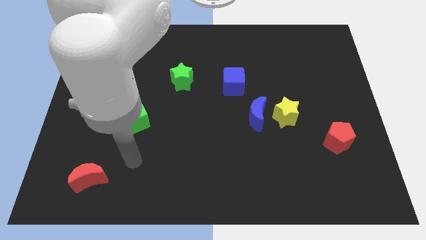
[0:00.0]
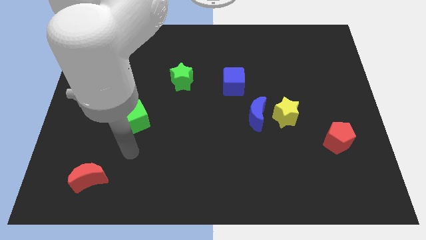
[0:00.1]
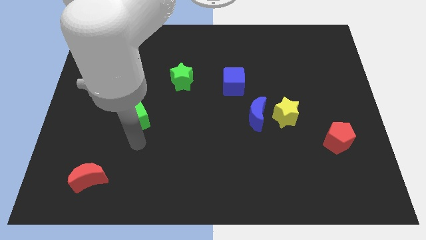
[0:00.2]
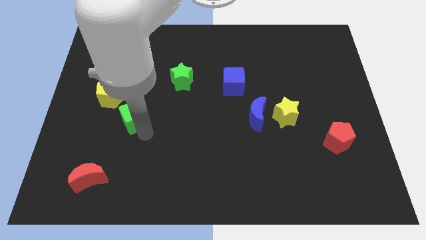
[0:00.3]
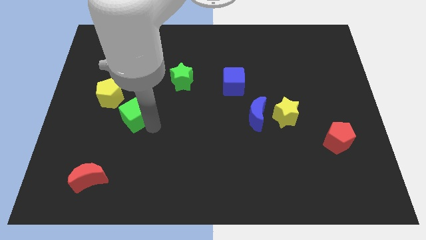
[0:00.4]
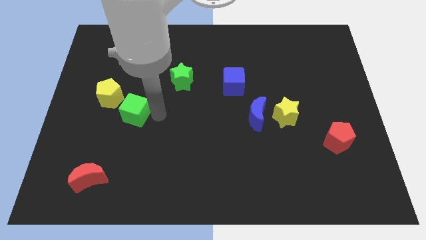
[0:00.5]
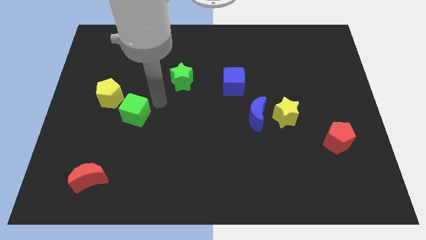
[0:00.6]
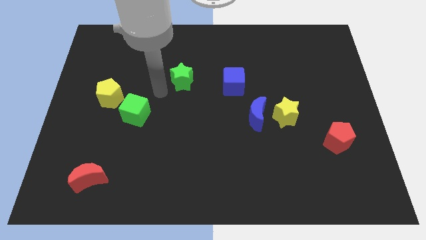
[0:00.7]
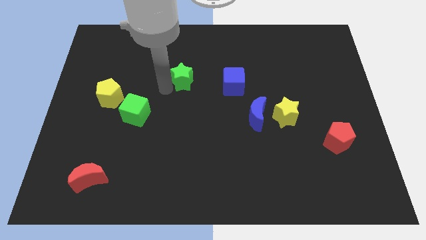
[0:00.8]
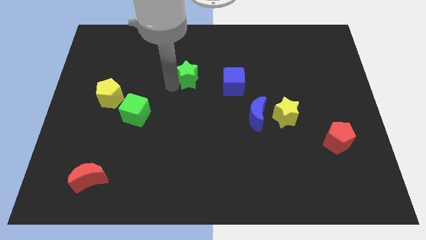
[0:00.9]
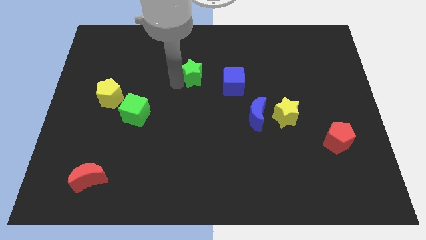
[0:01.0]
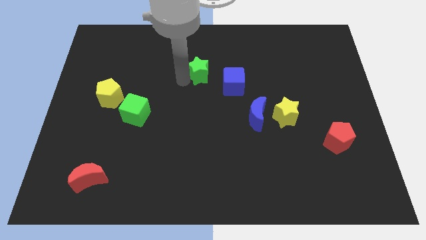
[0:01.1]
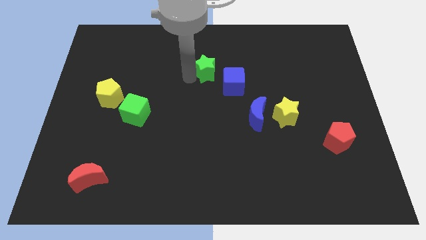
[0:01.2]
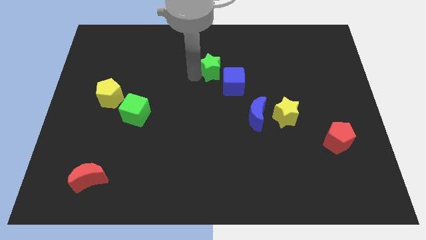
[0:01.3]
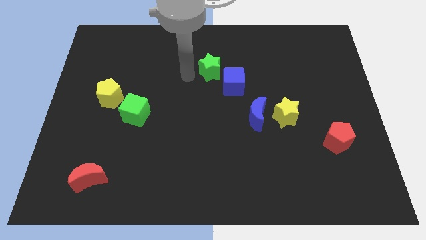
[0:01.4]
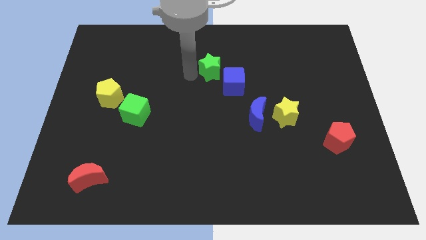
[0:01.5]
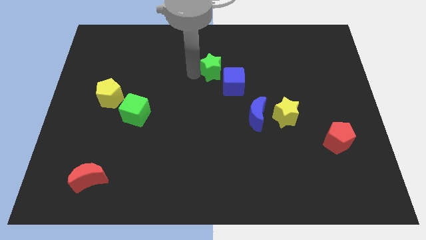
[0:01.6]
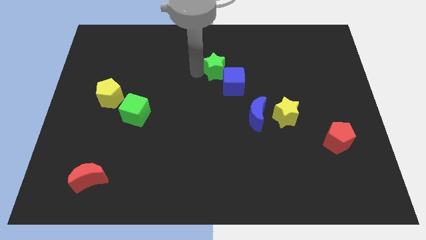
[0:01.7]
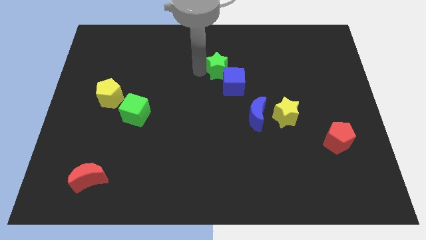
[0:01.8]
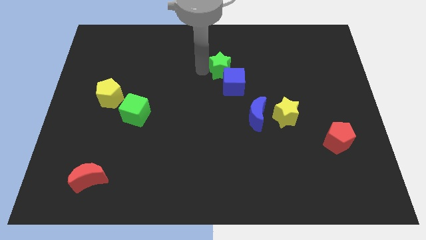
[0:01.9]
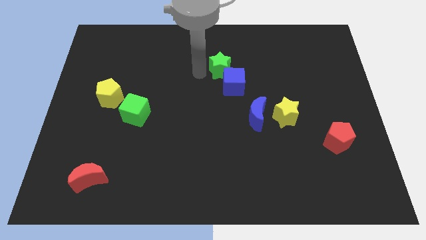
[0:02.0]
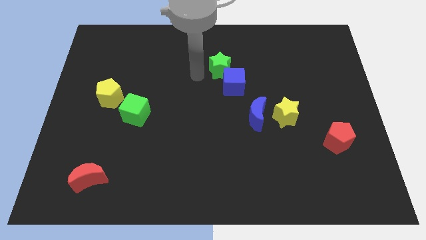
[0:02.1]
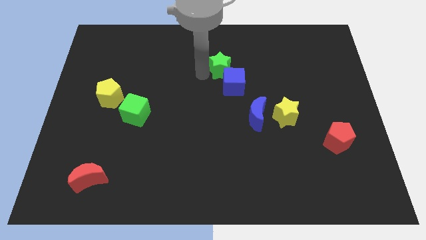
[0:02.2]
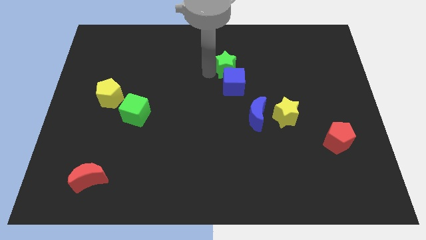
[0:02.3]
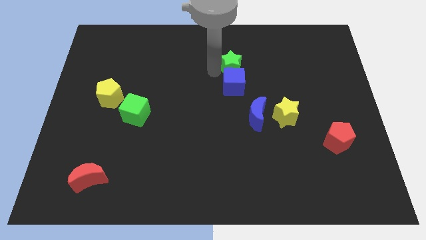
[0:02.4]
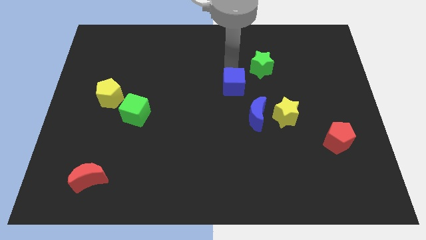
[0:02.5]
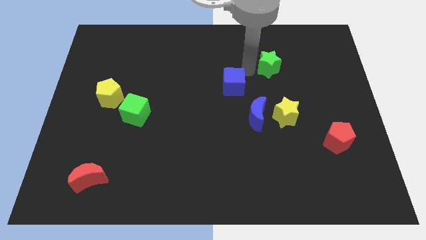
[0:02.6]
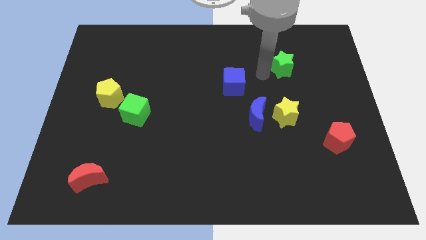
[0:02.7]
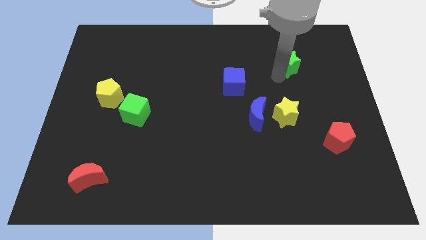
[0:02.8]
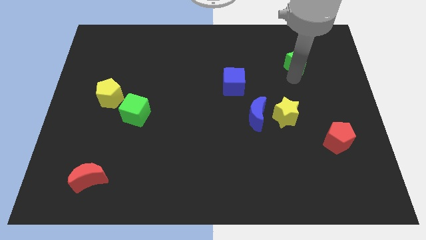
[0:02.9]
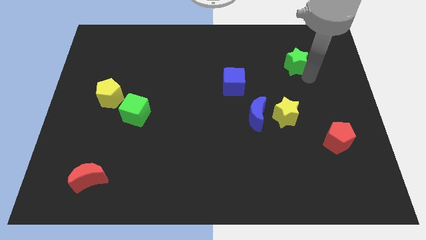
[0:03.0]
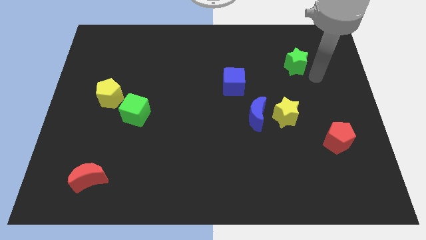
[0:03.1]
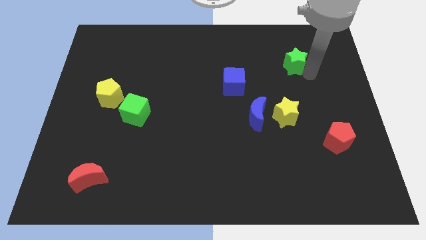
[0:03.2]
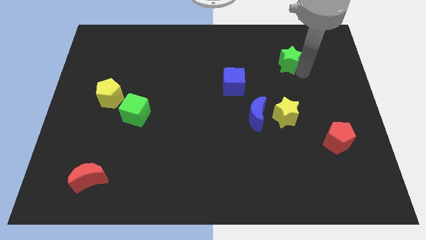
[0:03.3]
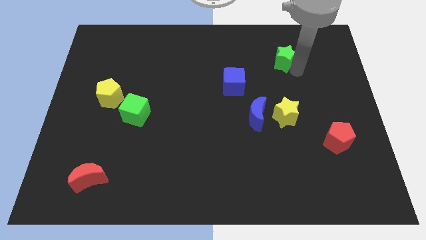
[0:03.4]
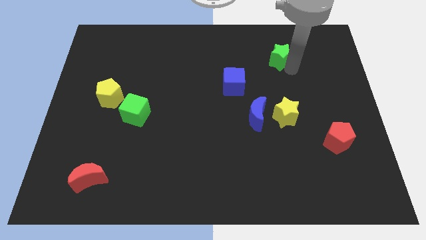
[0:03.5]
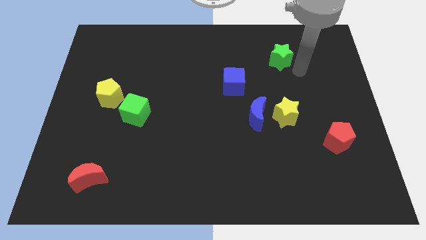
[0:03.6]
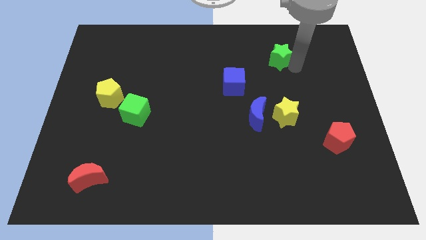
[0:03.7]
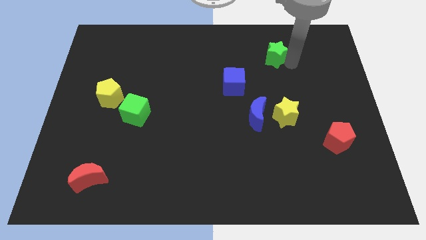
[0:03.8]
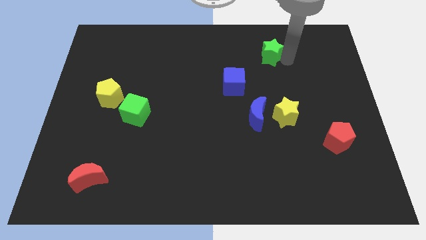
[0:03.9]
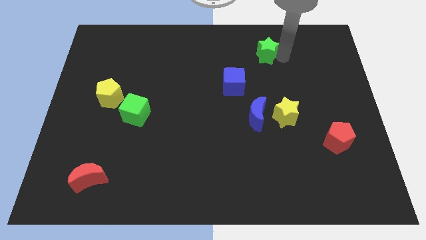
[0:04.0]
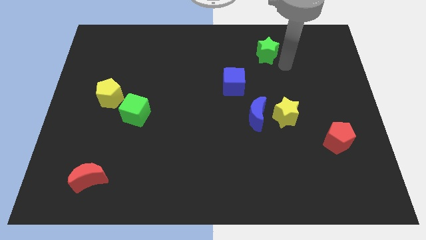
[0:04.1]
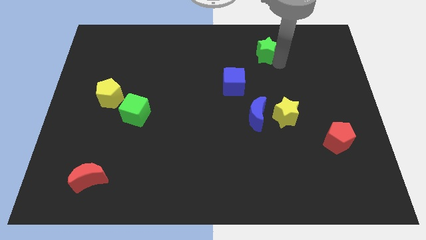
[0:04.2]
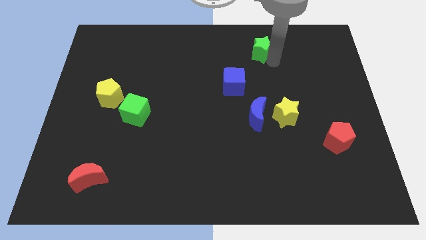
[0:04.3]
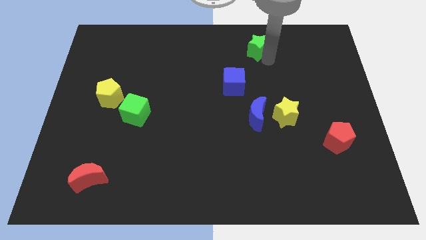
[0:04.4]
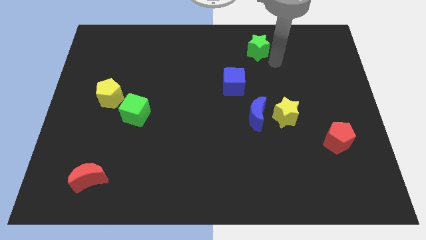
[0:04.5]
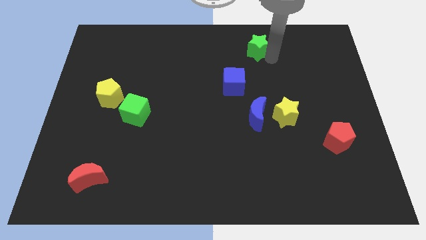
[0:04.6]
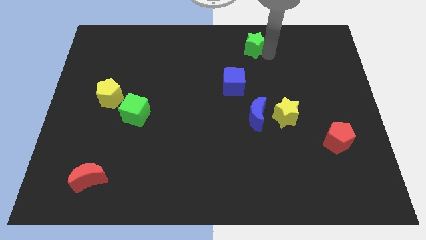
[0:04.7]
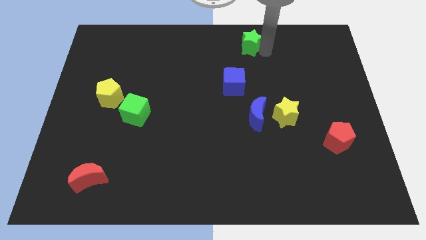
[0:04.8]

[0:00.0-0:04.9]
put the green star to the towards your base

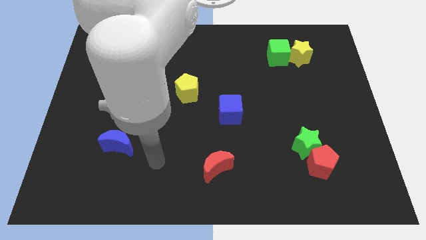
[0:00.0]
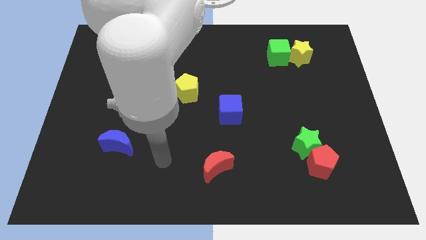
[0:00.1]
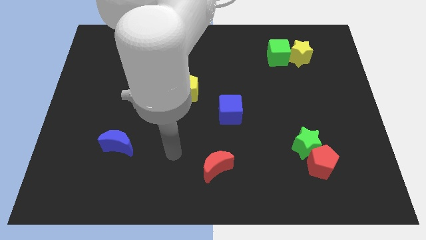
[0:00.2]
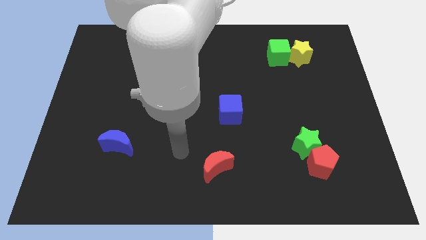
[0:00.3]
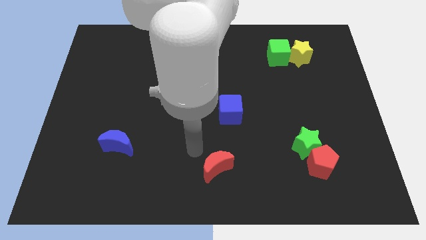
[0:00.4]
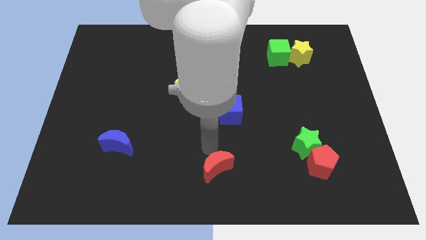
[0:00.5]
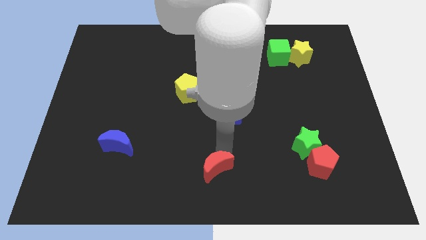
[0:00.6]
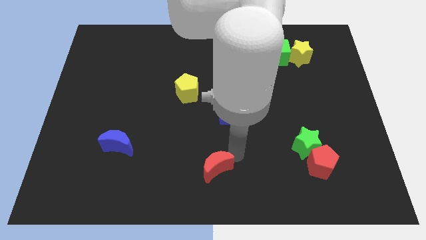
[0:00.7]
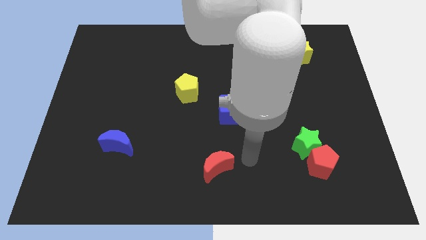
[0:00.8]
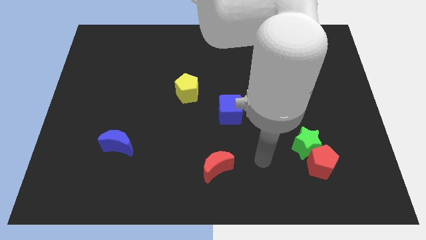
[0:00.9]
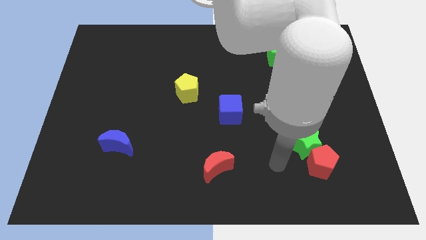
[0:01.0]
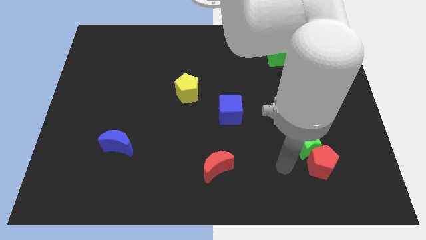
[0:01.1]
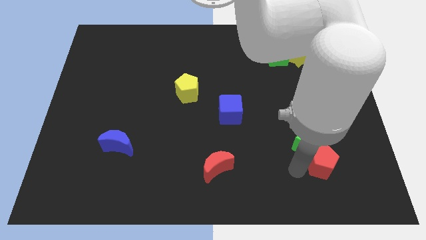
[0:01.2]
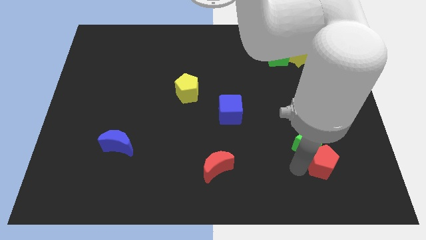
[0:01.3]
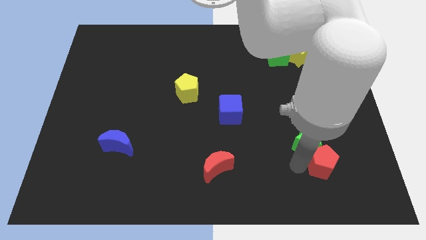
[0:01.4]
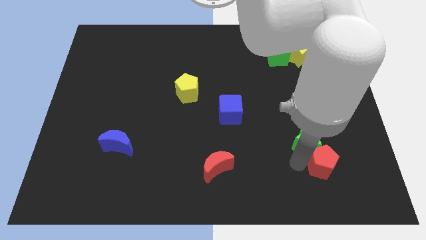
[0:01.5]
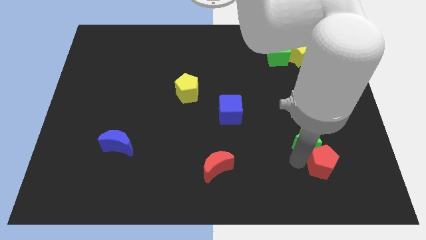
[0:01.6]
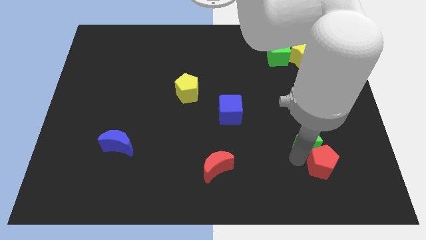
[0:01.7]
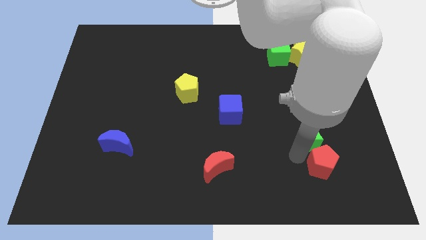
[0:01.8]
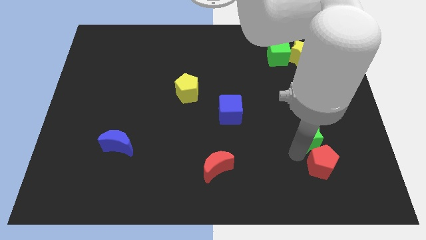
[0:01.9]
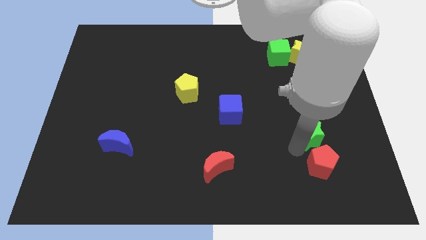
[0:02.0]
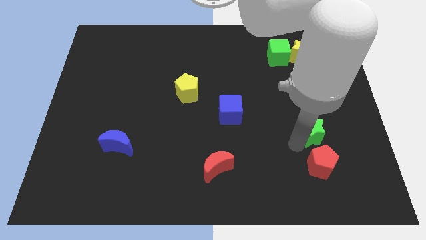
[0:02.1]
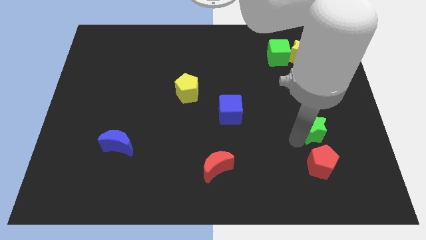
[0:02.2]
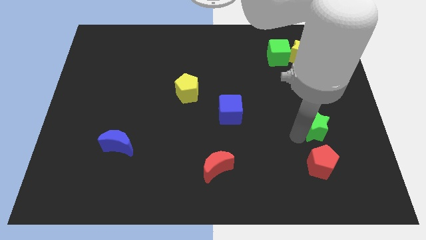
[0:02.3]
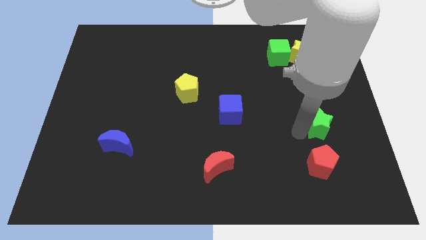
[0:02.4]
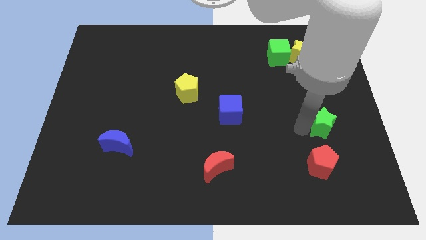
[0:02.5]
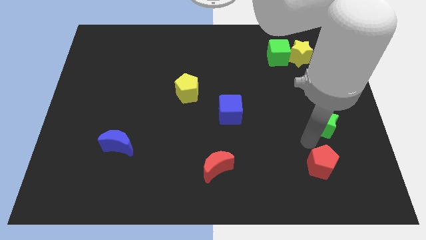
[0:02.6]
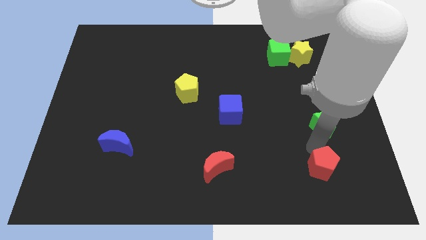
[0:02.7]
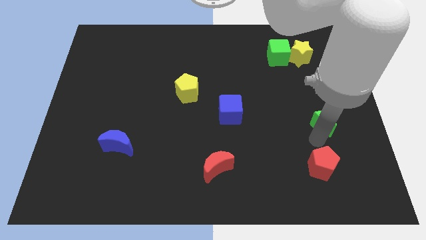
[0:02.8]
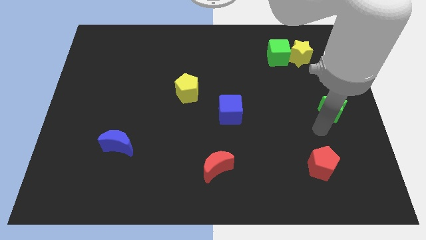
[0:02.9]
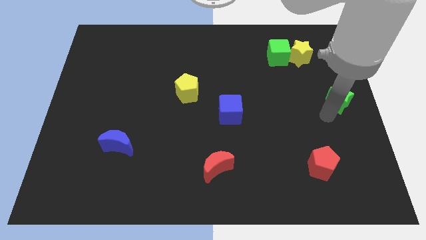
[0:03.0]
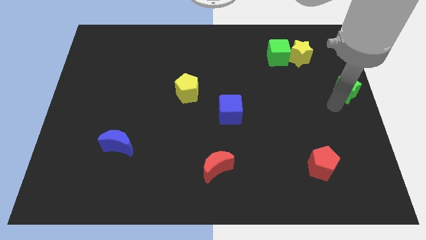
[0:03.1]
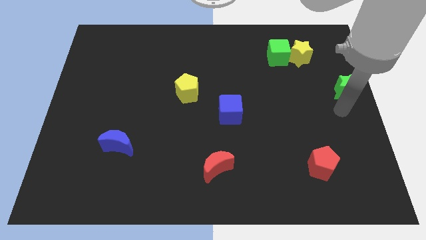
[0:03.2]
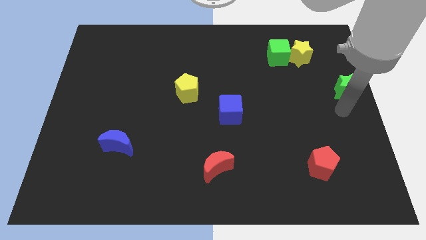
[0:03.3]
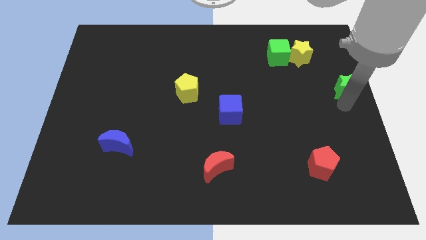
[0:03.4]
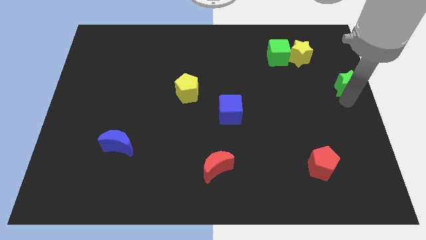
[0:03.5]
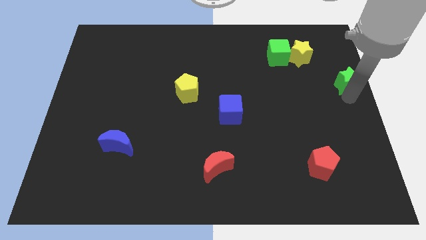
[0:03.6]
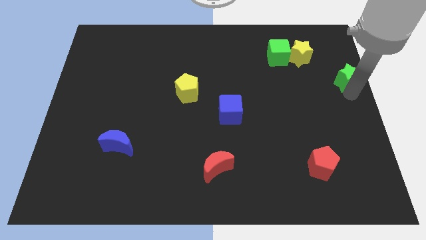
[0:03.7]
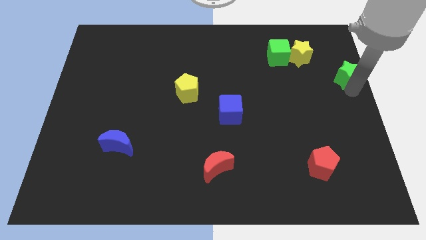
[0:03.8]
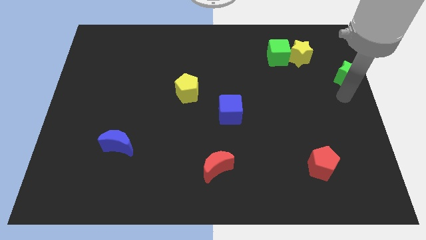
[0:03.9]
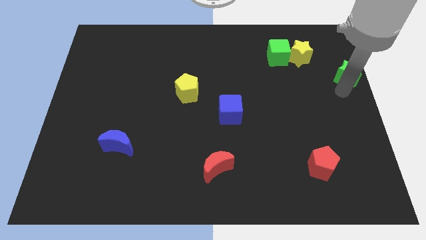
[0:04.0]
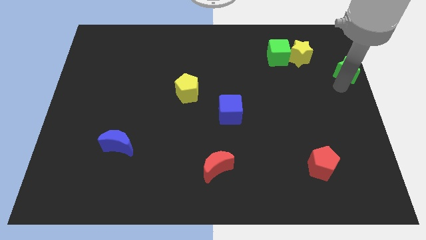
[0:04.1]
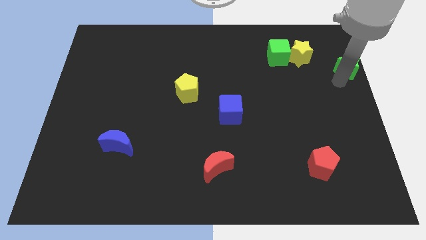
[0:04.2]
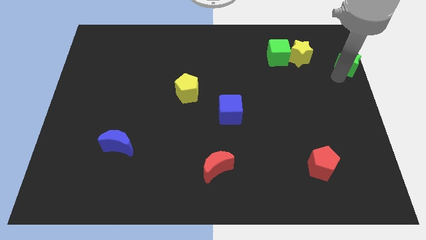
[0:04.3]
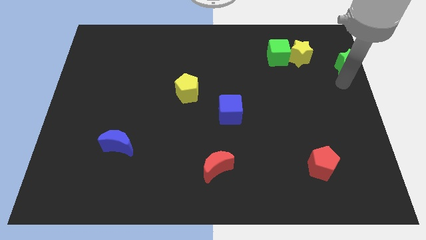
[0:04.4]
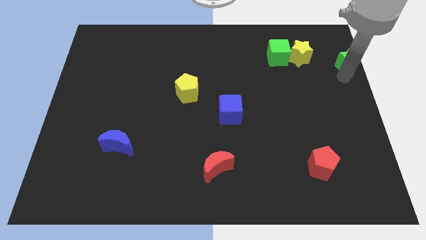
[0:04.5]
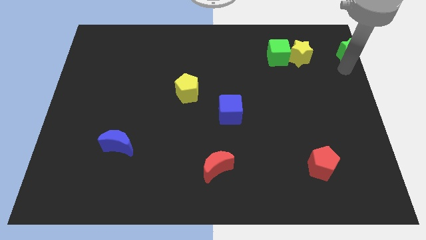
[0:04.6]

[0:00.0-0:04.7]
move the green star to the top right of the board
